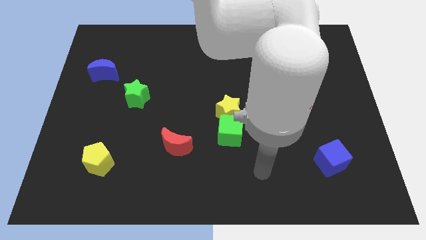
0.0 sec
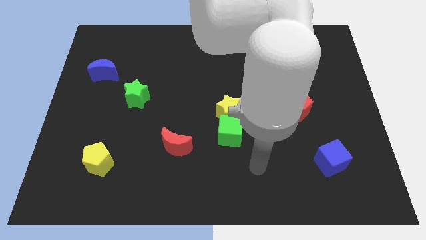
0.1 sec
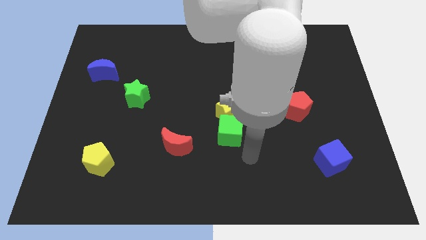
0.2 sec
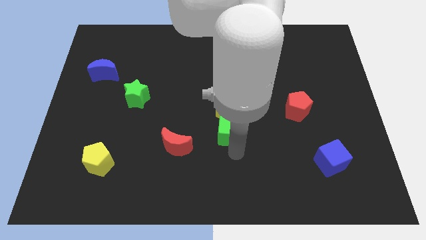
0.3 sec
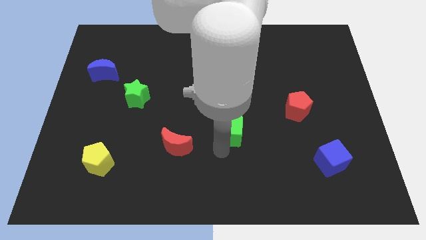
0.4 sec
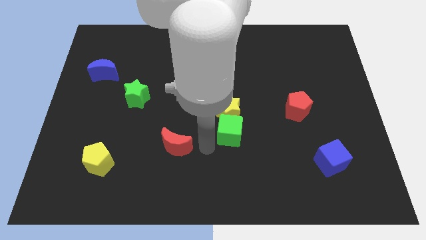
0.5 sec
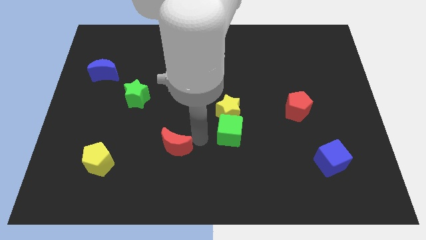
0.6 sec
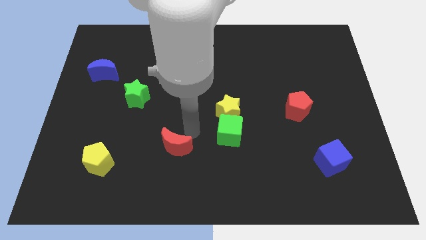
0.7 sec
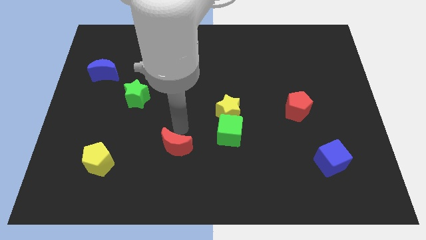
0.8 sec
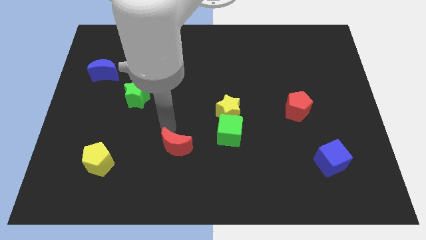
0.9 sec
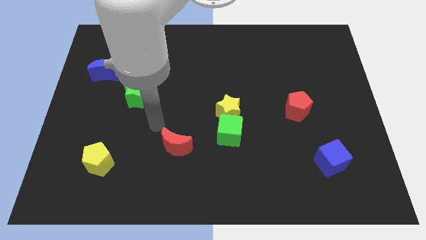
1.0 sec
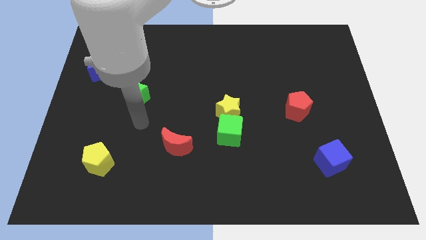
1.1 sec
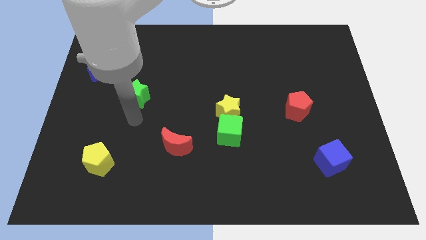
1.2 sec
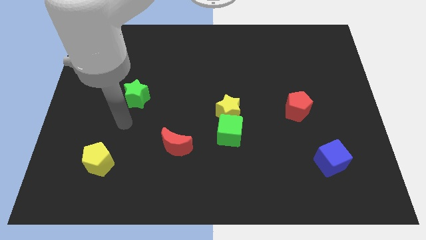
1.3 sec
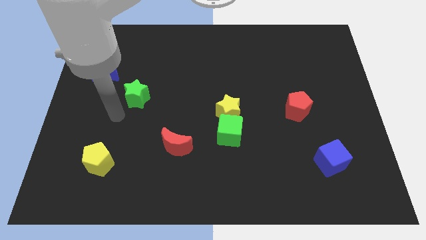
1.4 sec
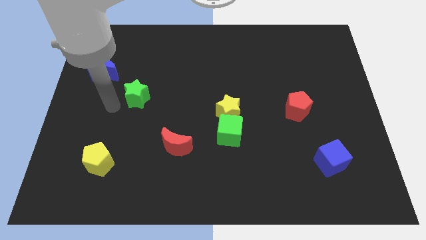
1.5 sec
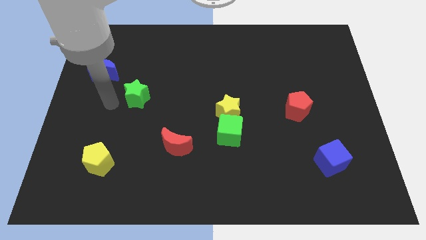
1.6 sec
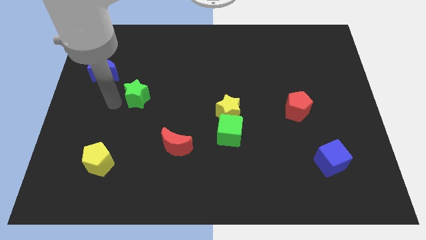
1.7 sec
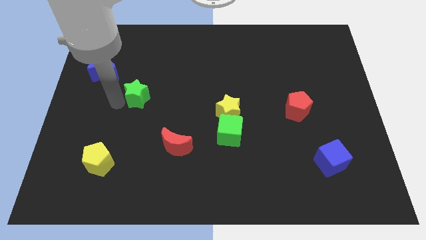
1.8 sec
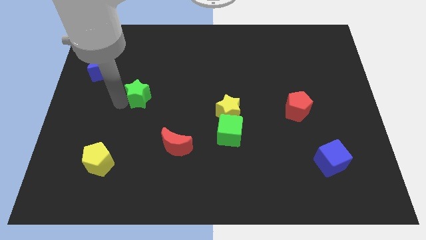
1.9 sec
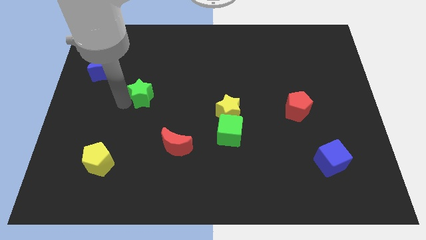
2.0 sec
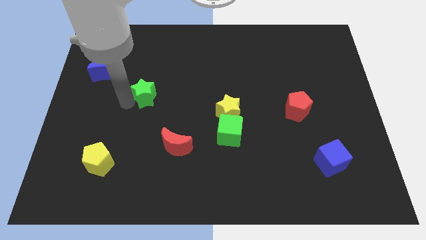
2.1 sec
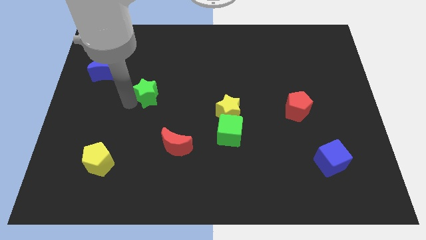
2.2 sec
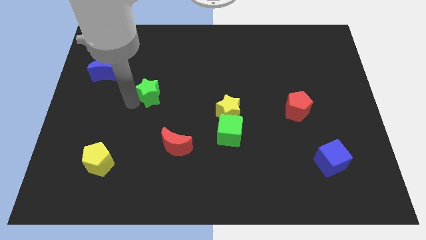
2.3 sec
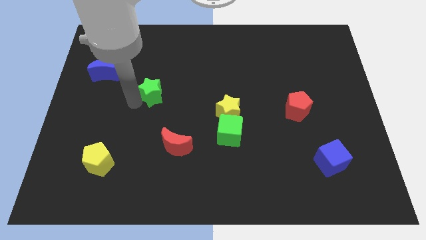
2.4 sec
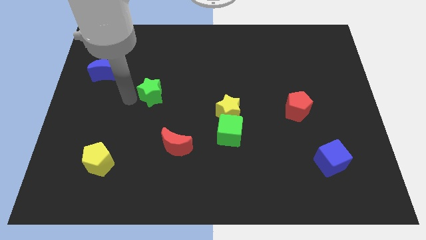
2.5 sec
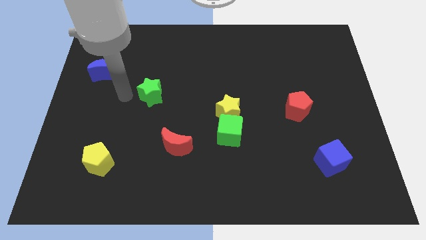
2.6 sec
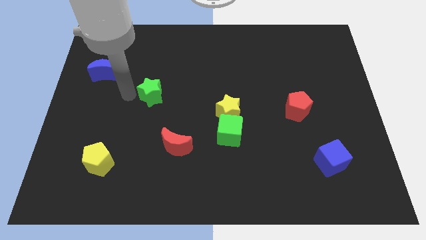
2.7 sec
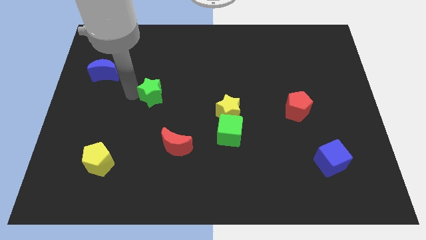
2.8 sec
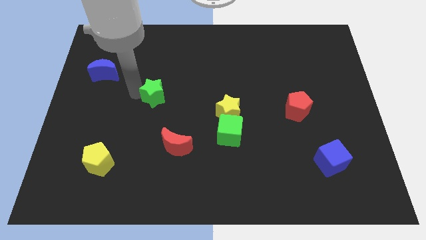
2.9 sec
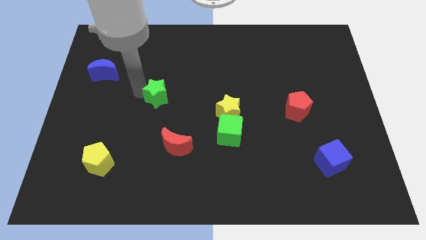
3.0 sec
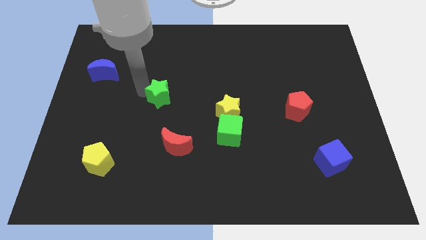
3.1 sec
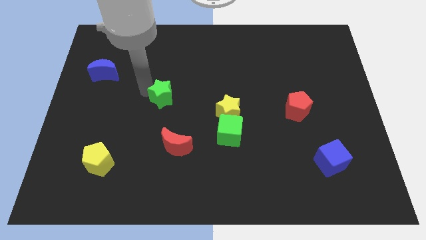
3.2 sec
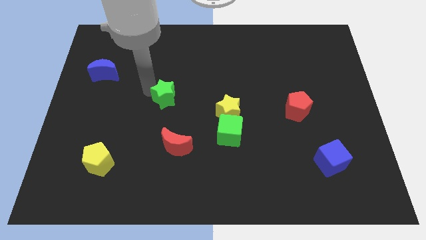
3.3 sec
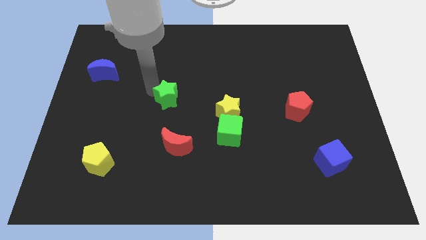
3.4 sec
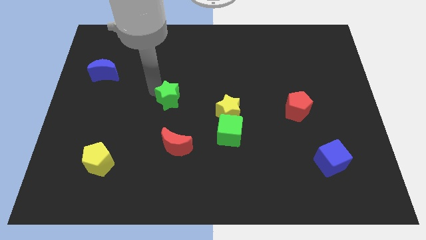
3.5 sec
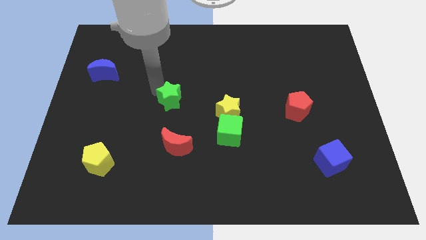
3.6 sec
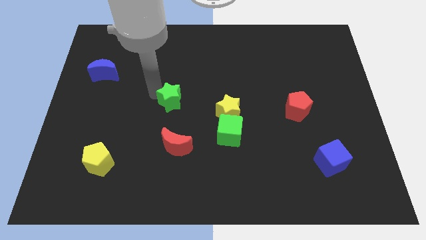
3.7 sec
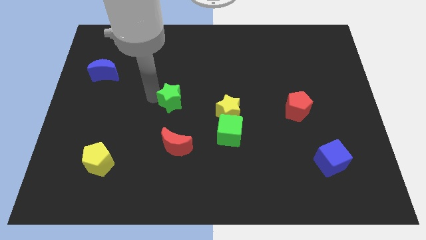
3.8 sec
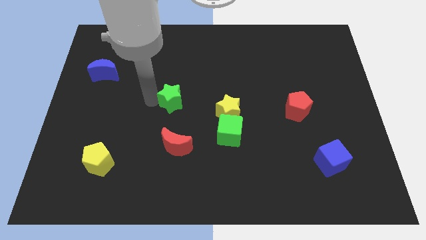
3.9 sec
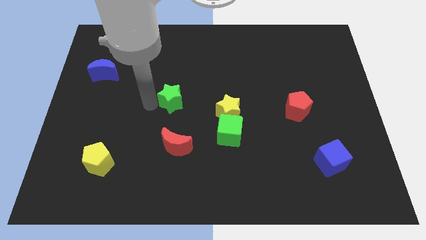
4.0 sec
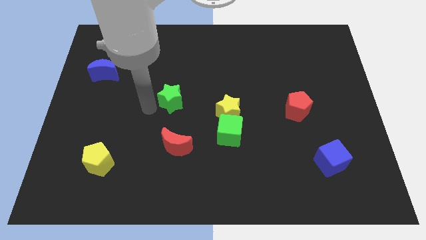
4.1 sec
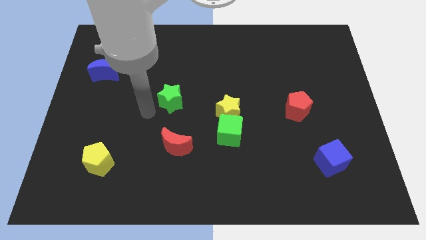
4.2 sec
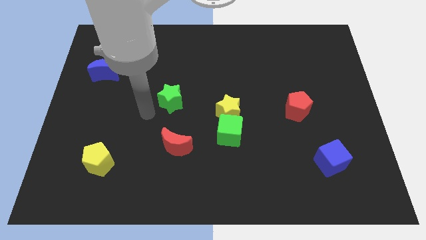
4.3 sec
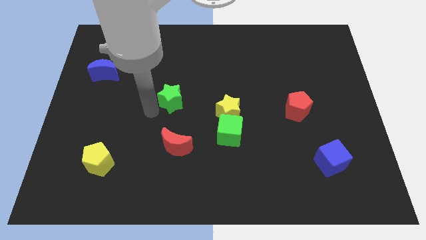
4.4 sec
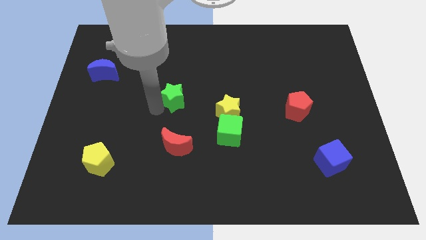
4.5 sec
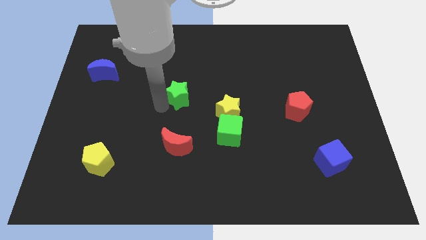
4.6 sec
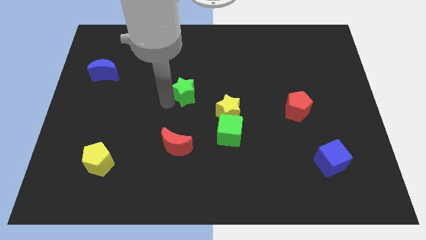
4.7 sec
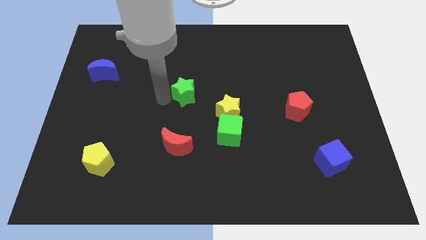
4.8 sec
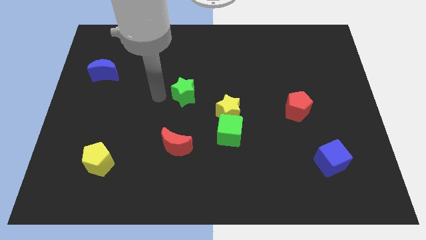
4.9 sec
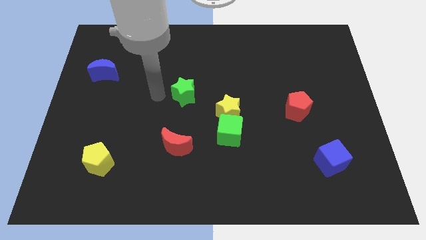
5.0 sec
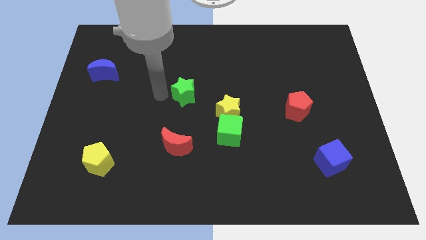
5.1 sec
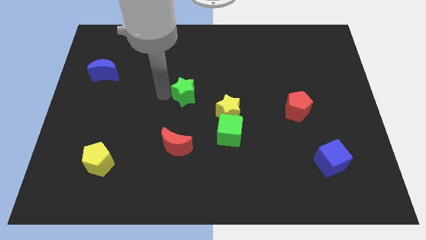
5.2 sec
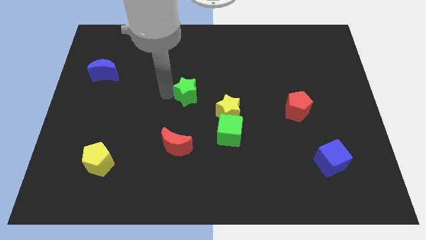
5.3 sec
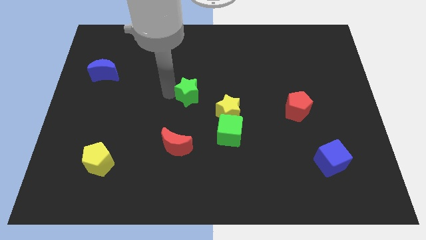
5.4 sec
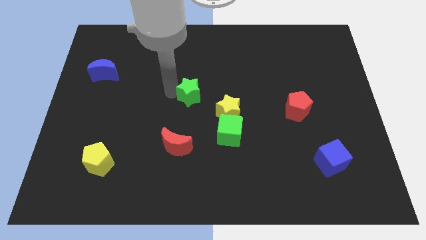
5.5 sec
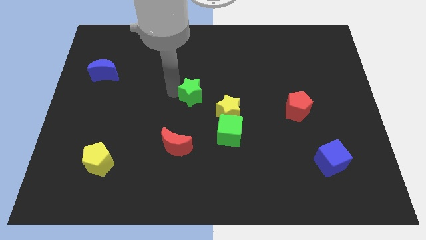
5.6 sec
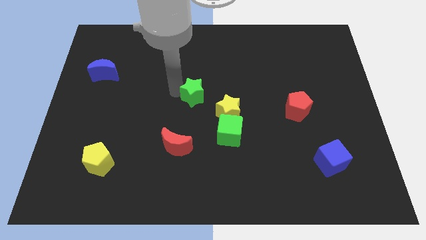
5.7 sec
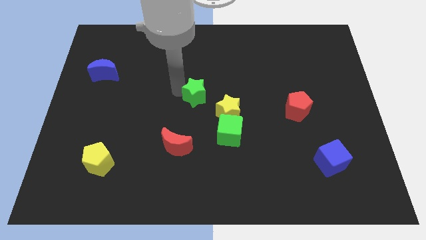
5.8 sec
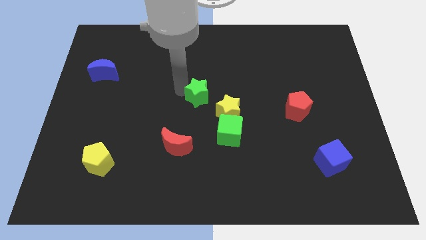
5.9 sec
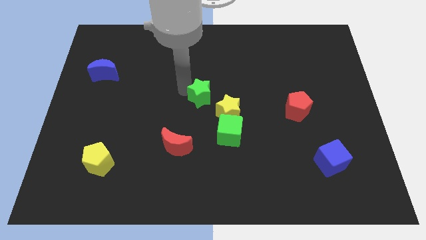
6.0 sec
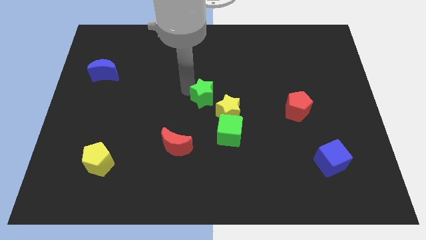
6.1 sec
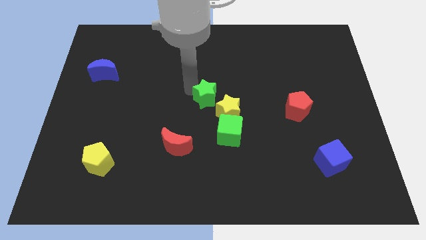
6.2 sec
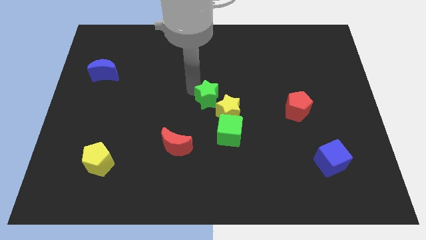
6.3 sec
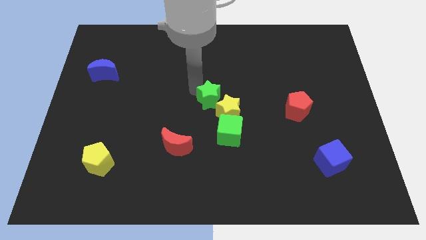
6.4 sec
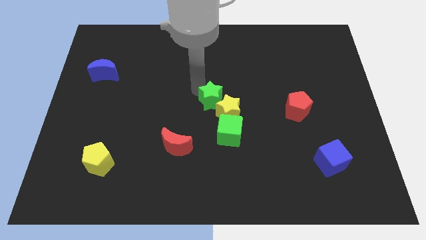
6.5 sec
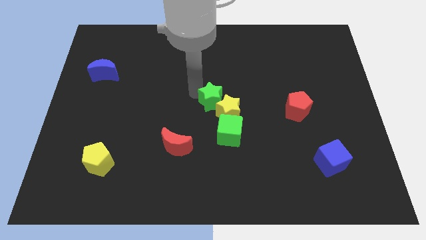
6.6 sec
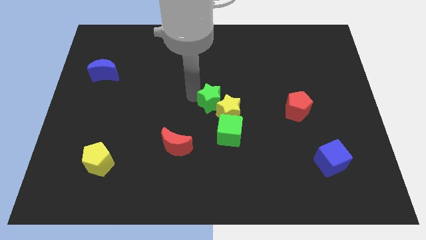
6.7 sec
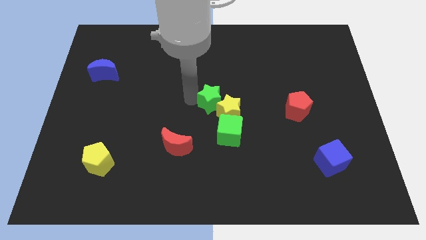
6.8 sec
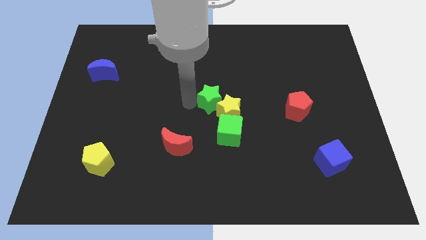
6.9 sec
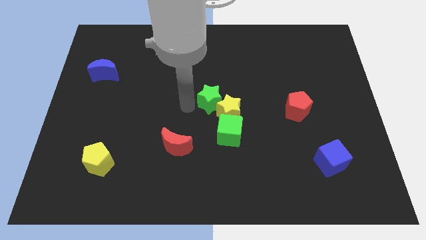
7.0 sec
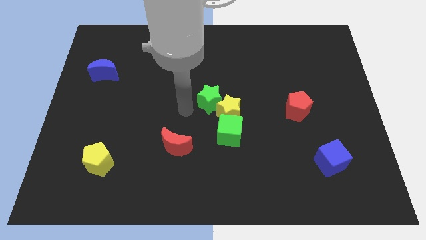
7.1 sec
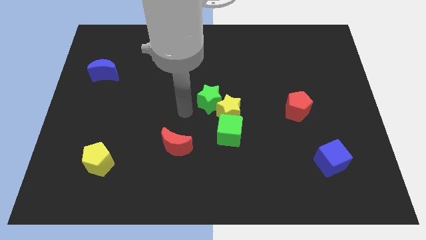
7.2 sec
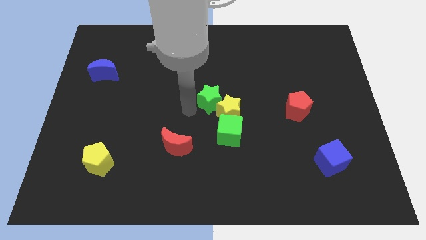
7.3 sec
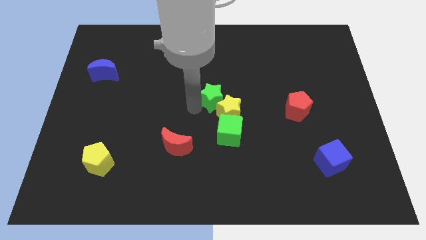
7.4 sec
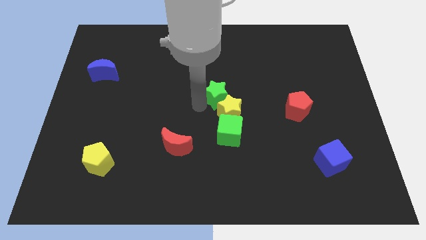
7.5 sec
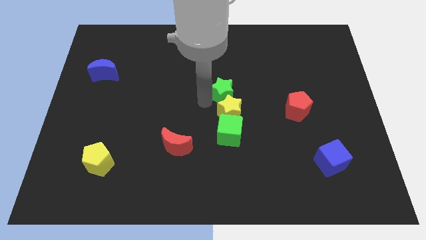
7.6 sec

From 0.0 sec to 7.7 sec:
push the green star to the right

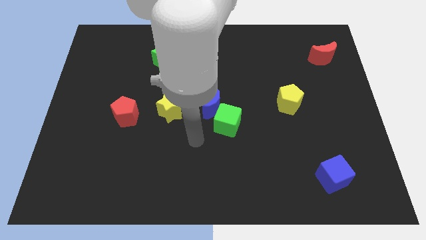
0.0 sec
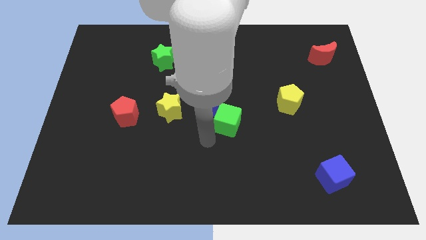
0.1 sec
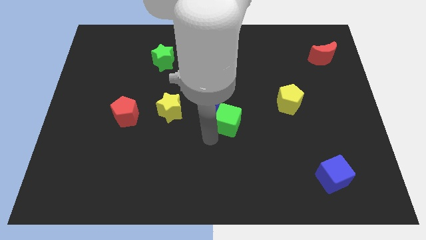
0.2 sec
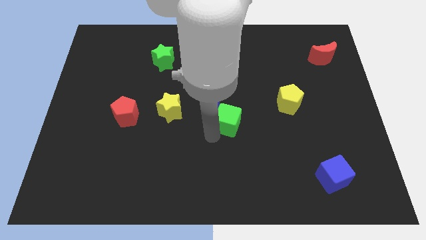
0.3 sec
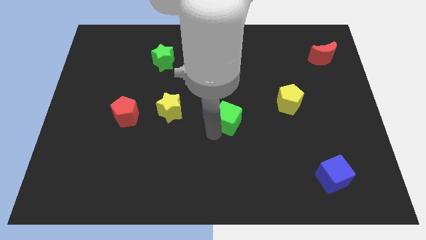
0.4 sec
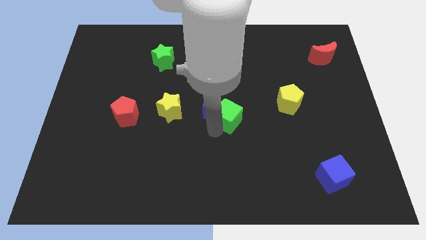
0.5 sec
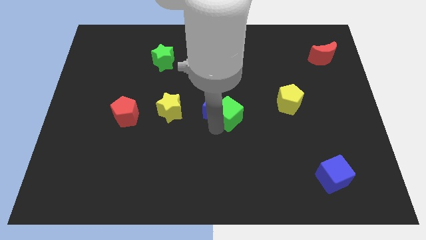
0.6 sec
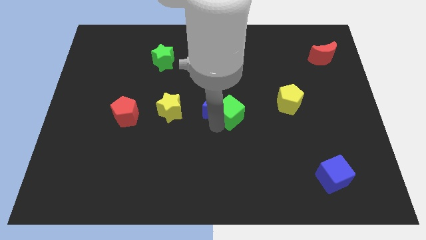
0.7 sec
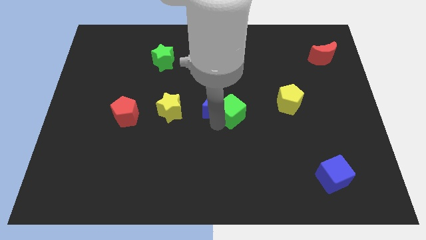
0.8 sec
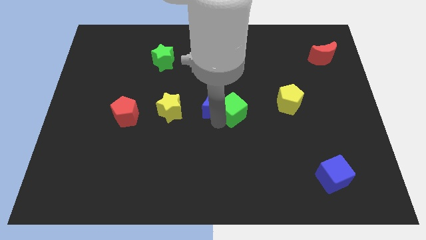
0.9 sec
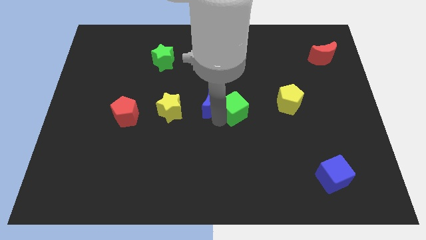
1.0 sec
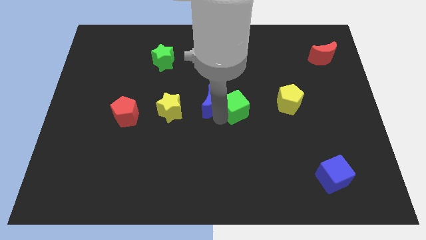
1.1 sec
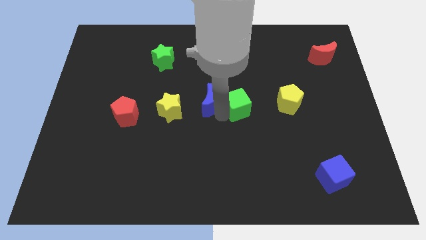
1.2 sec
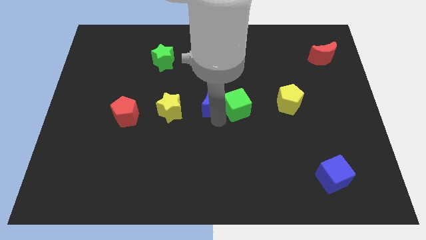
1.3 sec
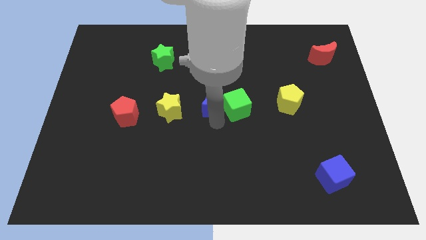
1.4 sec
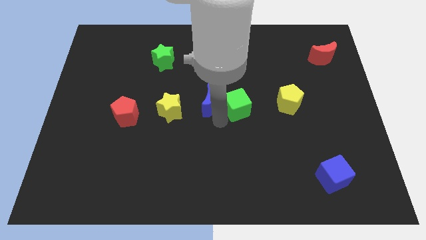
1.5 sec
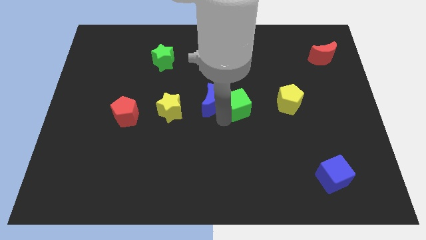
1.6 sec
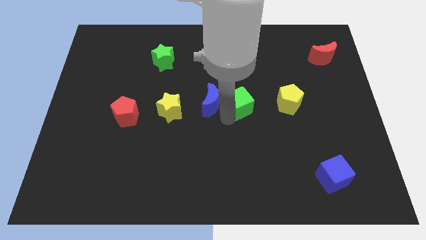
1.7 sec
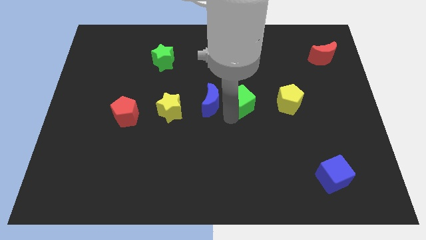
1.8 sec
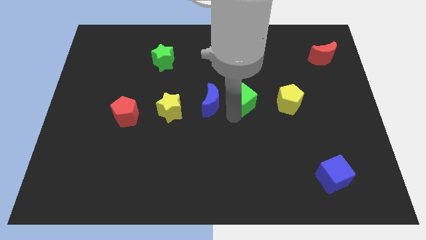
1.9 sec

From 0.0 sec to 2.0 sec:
slightly push the green cube diagonally upwards and right
